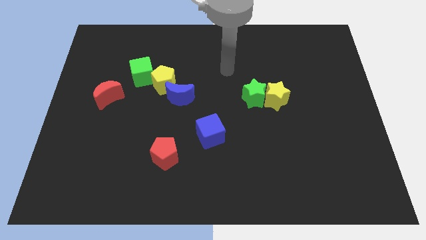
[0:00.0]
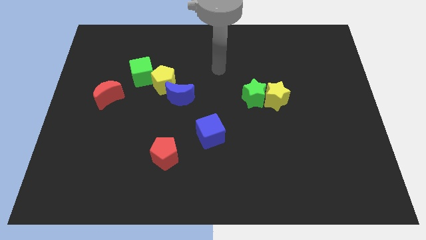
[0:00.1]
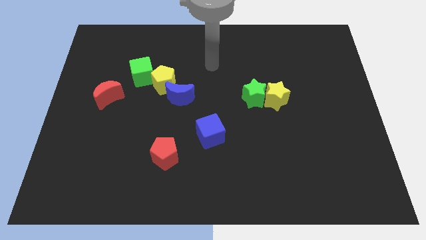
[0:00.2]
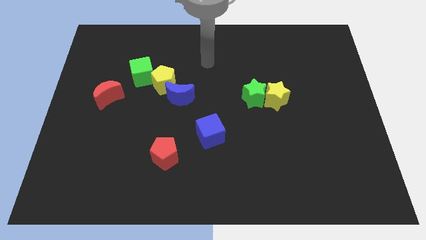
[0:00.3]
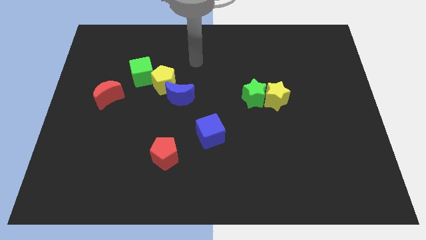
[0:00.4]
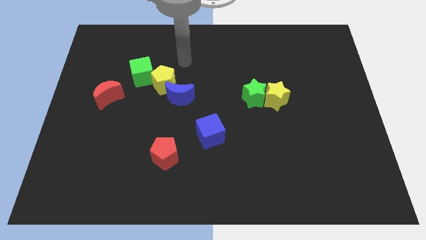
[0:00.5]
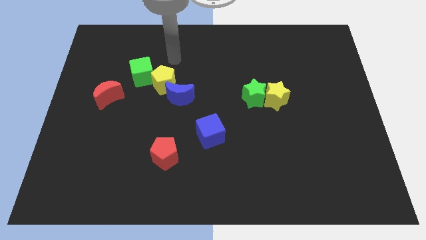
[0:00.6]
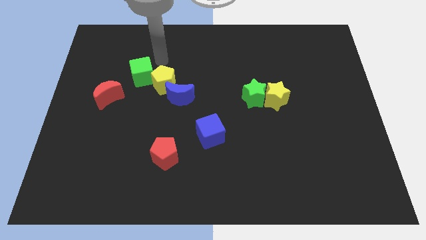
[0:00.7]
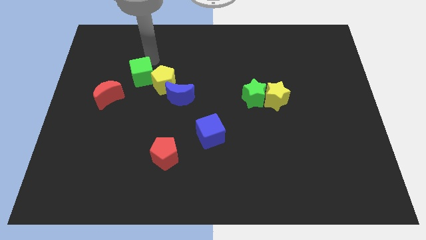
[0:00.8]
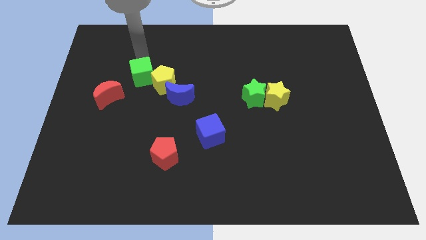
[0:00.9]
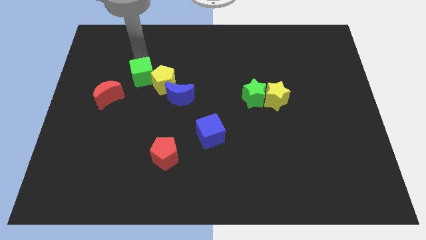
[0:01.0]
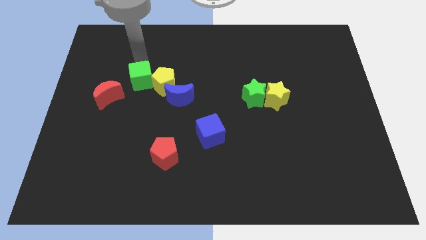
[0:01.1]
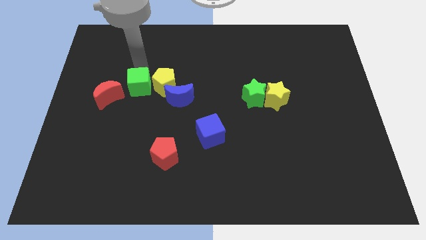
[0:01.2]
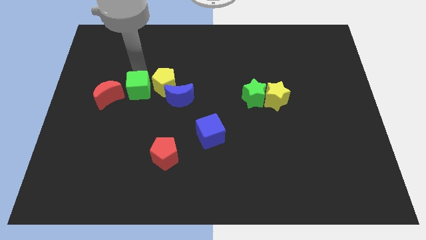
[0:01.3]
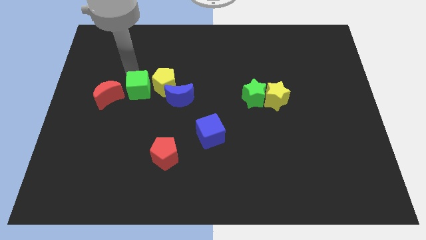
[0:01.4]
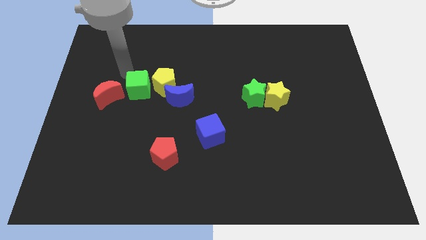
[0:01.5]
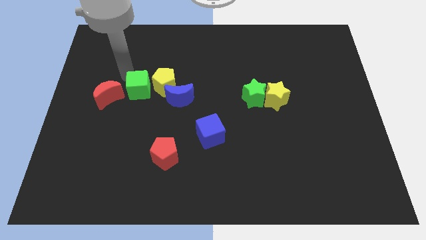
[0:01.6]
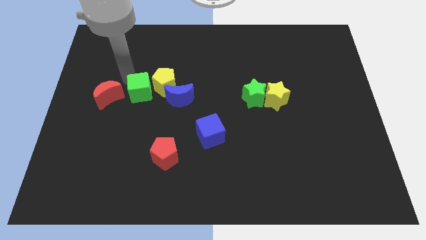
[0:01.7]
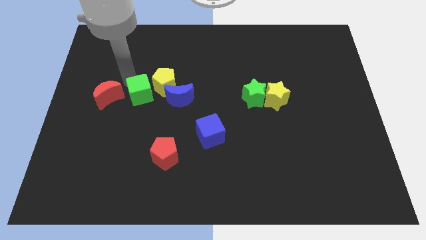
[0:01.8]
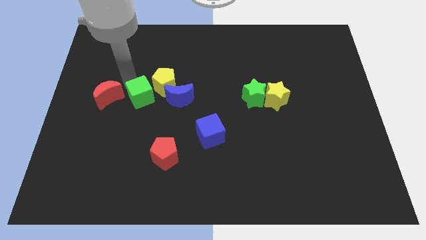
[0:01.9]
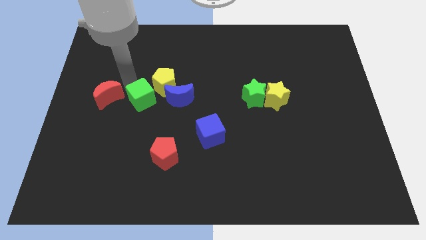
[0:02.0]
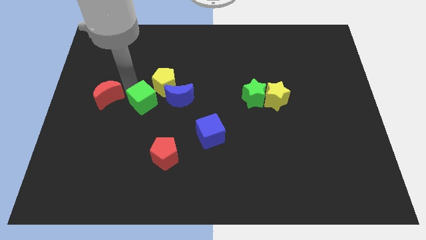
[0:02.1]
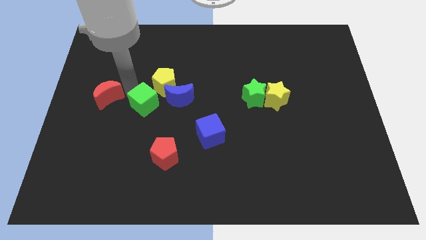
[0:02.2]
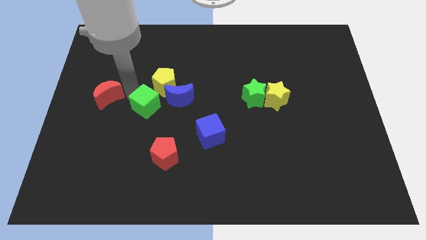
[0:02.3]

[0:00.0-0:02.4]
move the green cube downwards and then right a little

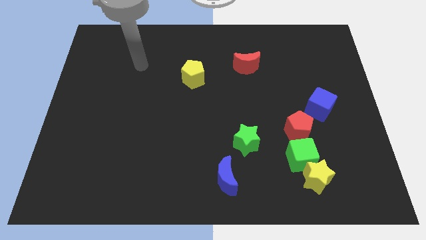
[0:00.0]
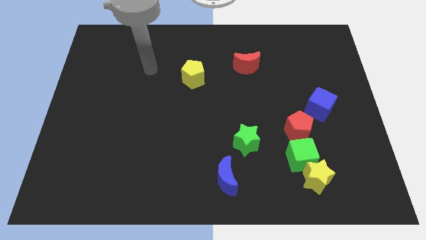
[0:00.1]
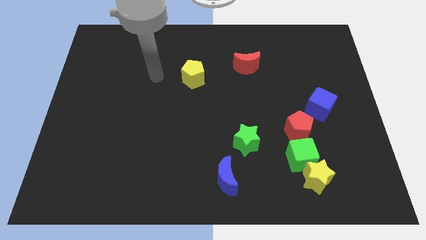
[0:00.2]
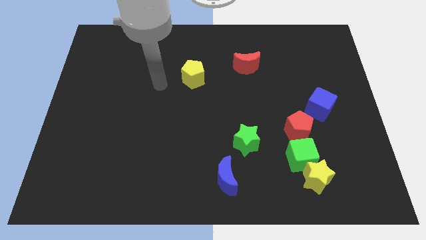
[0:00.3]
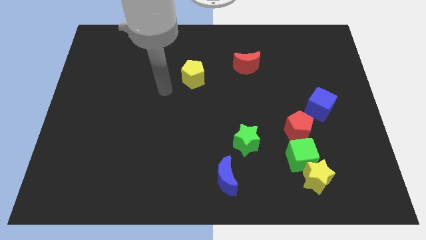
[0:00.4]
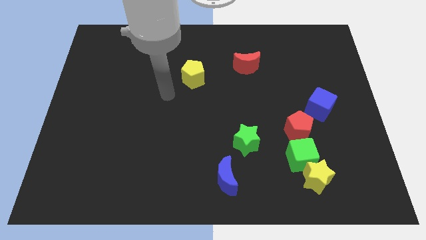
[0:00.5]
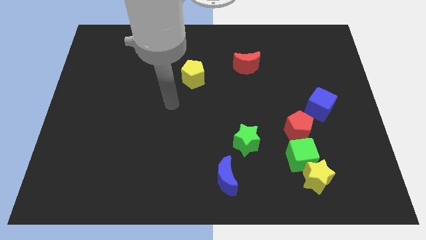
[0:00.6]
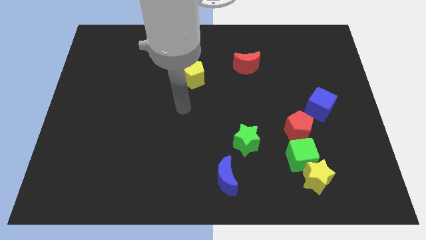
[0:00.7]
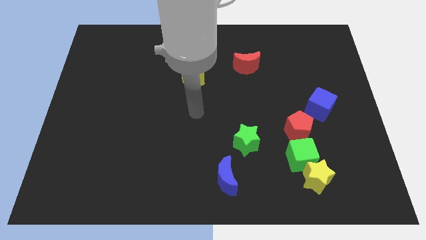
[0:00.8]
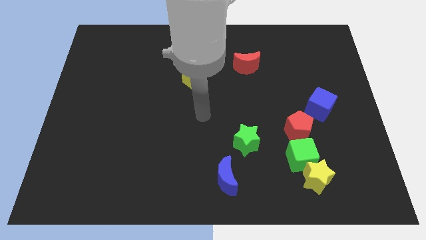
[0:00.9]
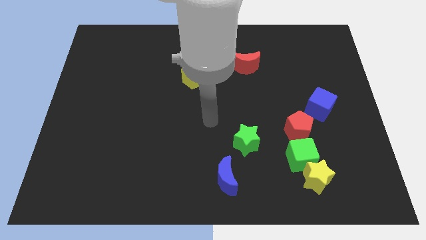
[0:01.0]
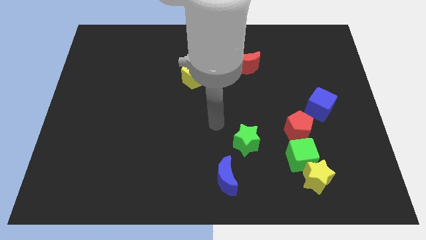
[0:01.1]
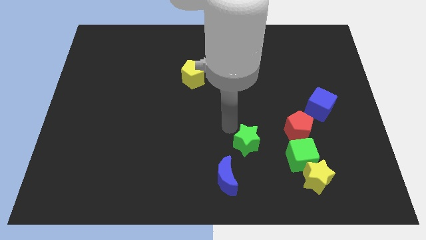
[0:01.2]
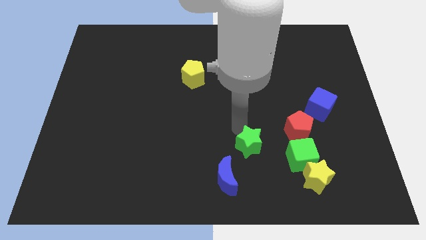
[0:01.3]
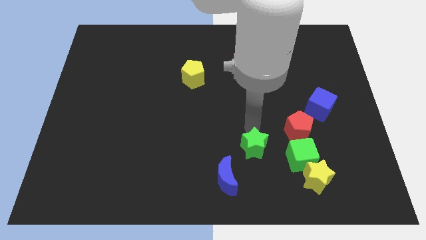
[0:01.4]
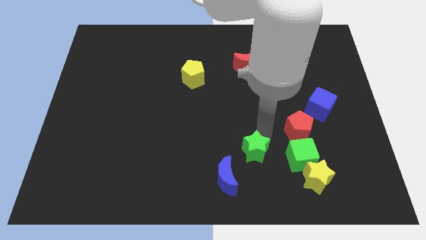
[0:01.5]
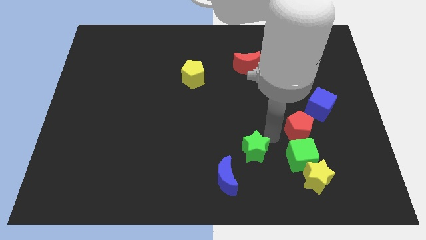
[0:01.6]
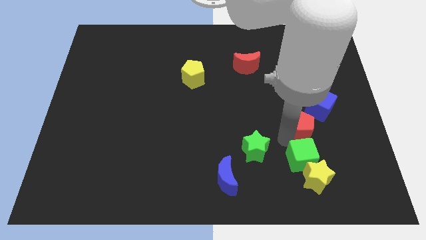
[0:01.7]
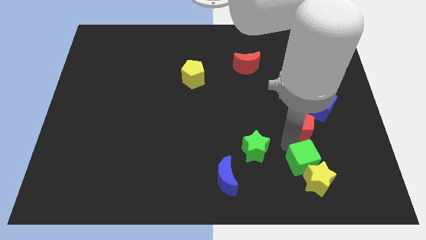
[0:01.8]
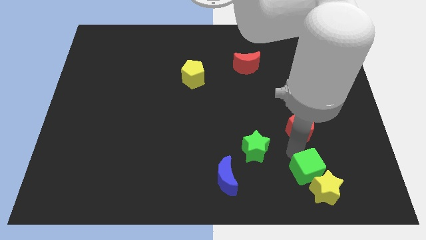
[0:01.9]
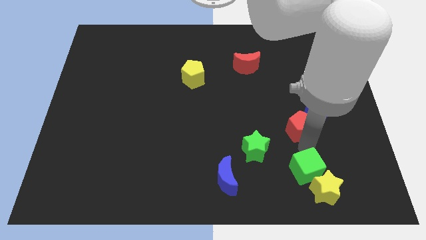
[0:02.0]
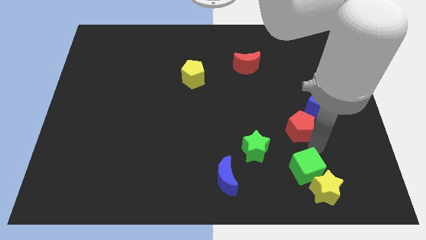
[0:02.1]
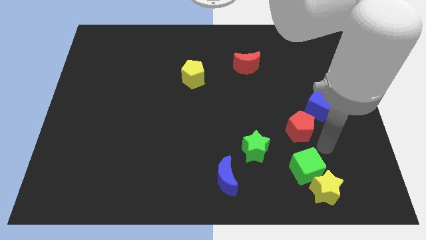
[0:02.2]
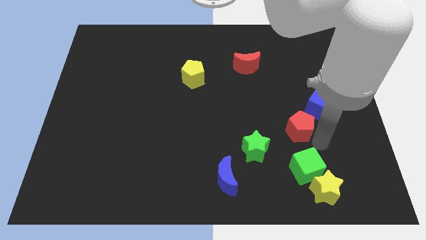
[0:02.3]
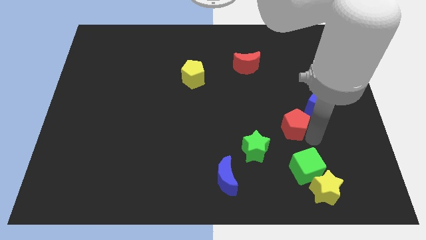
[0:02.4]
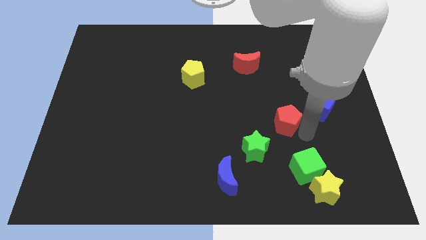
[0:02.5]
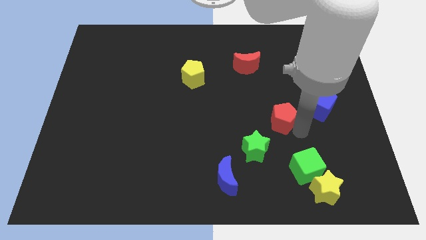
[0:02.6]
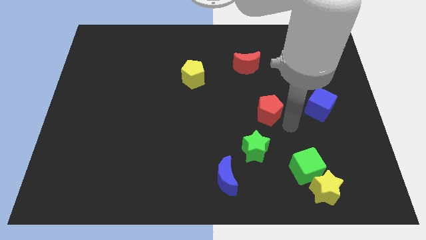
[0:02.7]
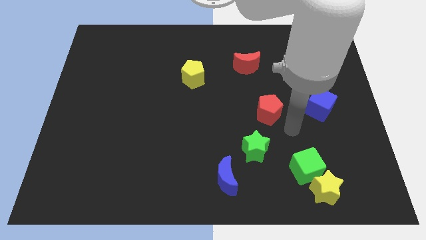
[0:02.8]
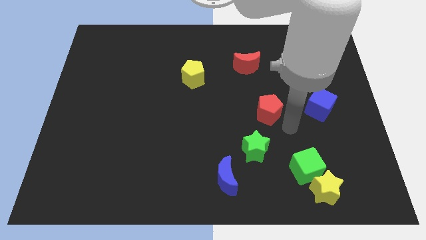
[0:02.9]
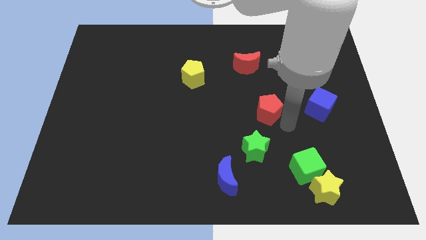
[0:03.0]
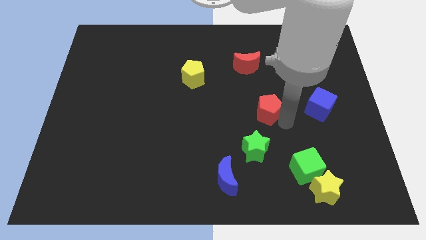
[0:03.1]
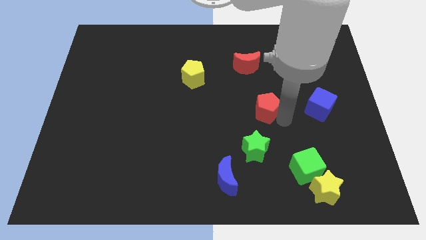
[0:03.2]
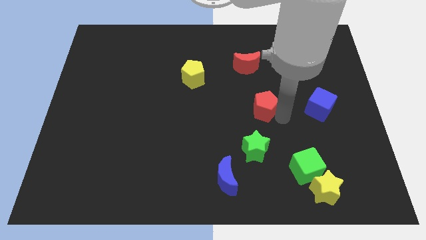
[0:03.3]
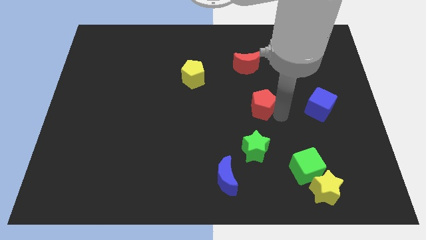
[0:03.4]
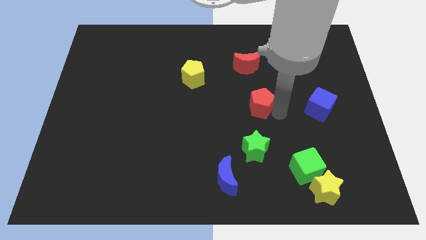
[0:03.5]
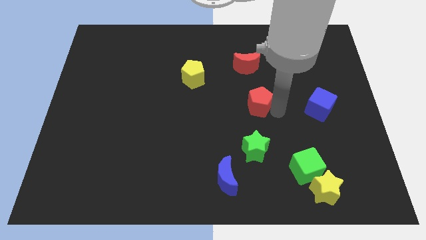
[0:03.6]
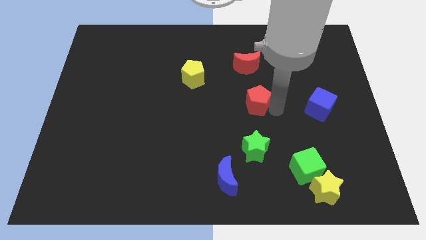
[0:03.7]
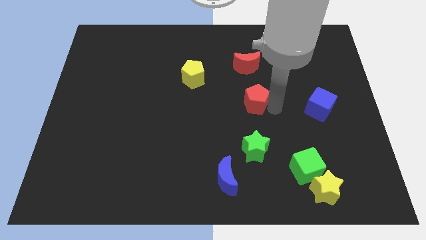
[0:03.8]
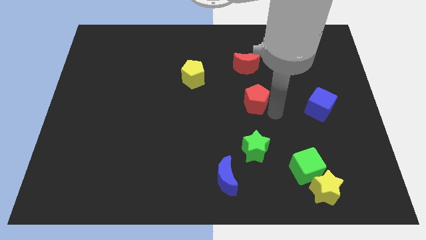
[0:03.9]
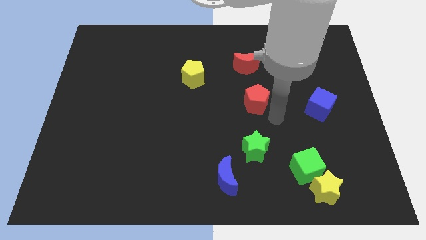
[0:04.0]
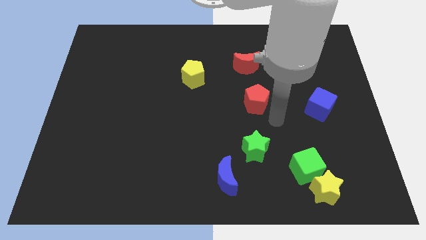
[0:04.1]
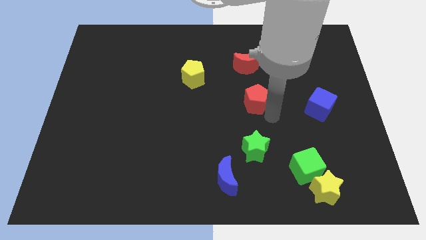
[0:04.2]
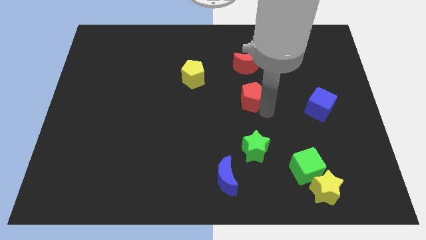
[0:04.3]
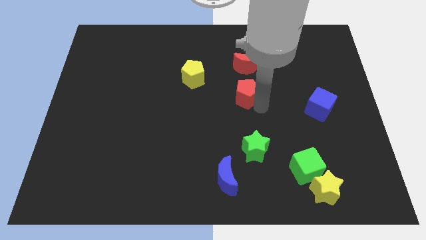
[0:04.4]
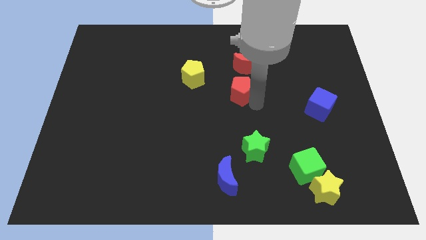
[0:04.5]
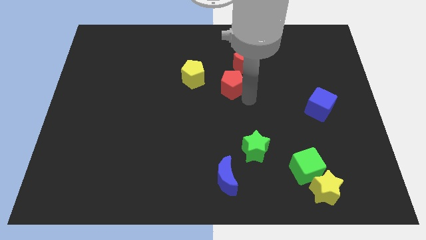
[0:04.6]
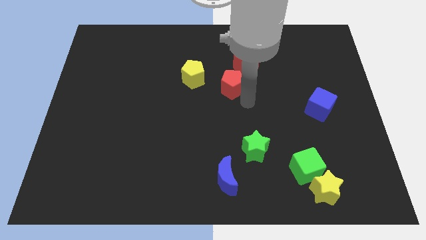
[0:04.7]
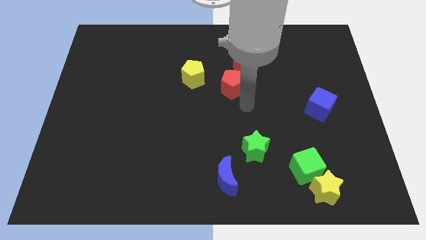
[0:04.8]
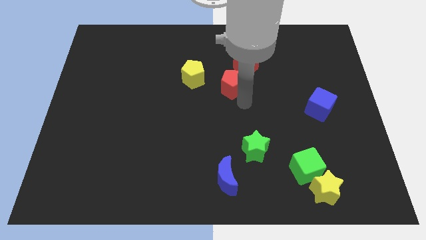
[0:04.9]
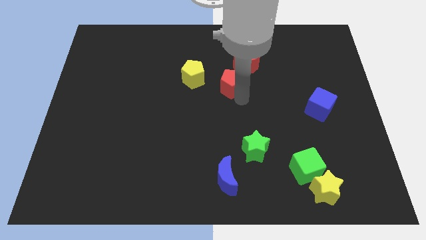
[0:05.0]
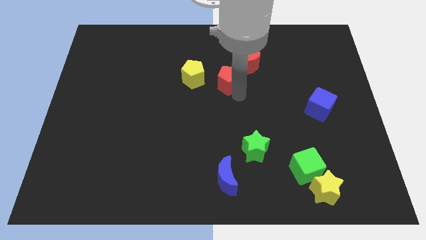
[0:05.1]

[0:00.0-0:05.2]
slide the red pentagon upwards and then left

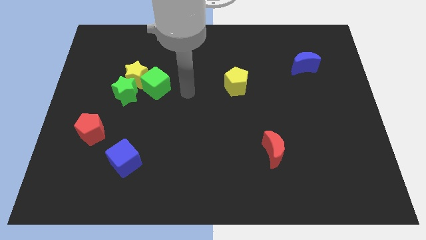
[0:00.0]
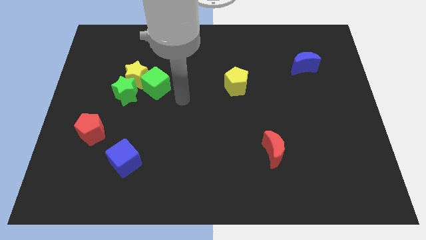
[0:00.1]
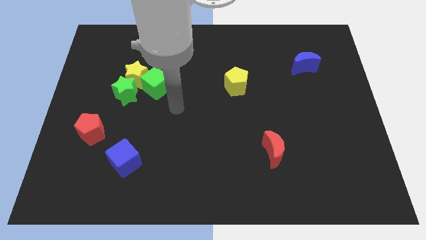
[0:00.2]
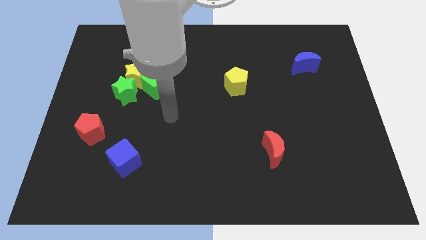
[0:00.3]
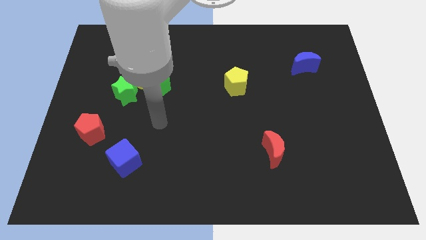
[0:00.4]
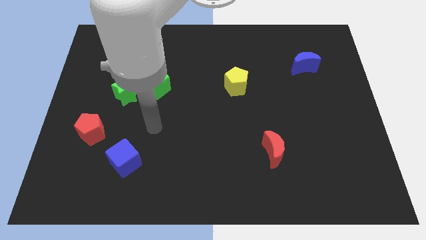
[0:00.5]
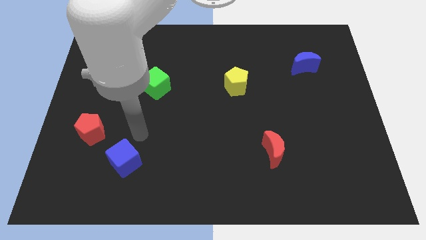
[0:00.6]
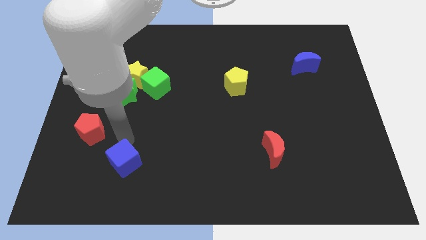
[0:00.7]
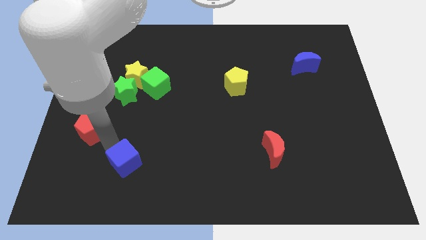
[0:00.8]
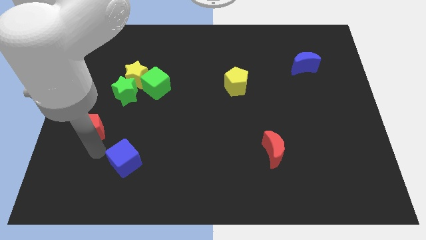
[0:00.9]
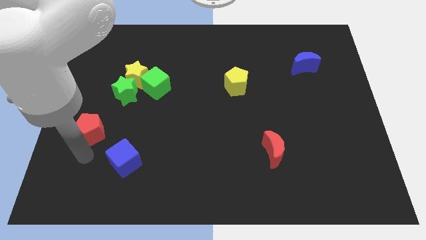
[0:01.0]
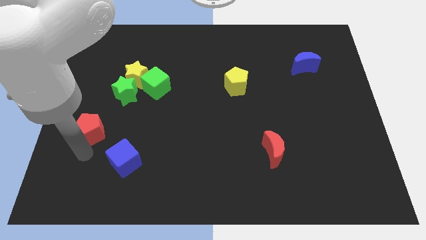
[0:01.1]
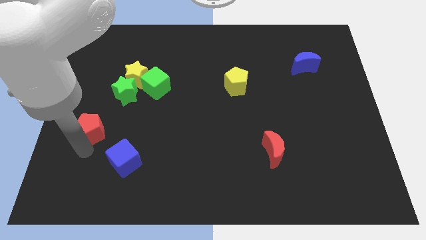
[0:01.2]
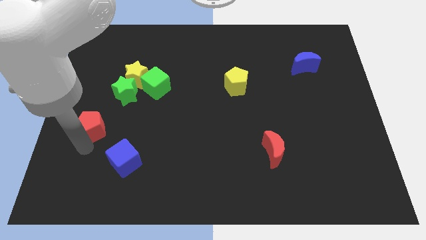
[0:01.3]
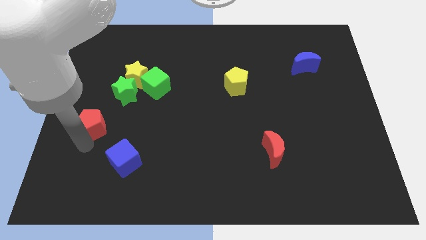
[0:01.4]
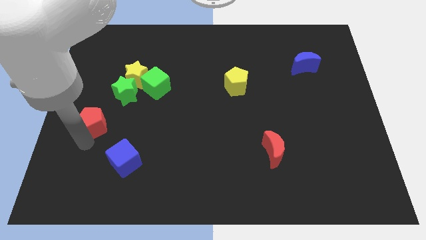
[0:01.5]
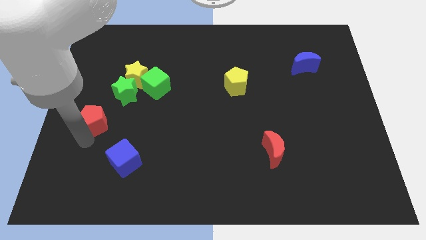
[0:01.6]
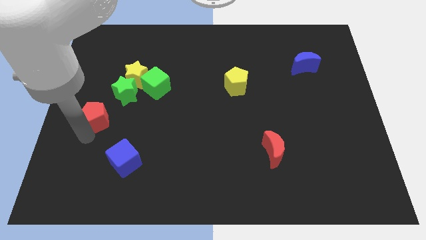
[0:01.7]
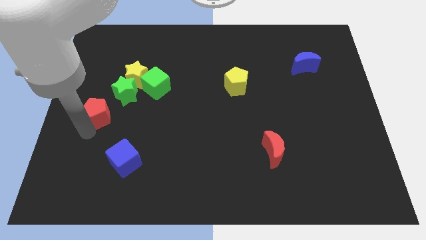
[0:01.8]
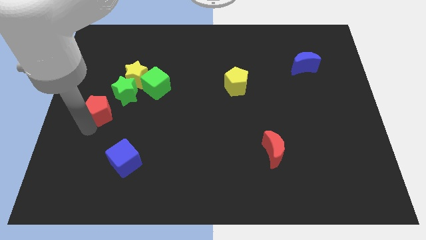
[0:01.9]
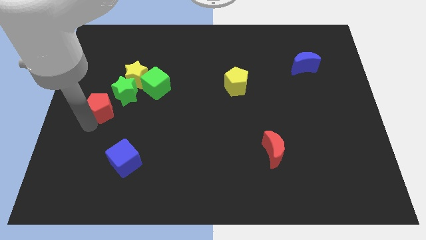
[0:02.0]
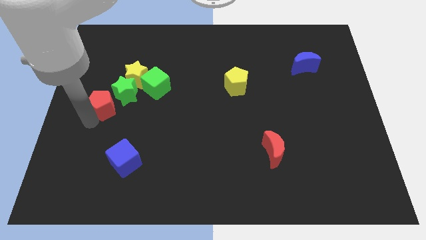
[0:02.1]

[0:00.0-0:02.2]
push the red pentagon upwards a little
